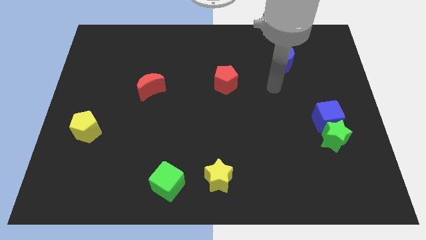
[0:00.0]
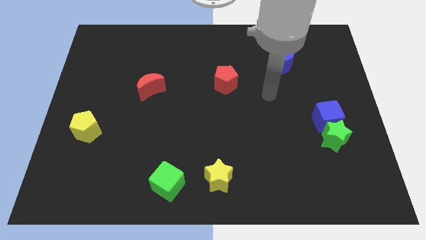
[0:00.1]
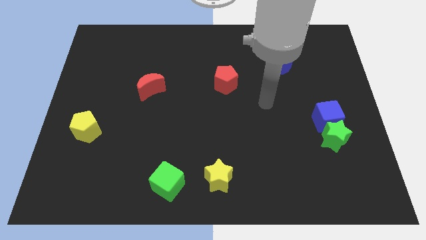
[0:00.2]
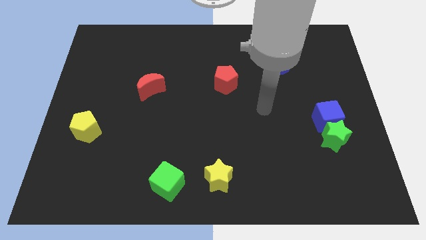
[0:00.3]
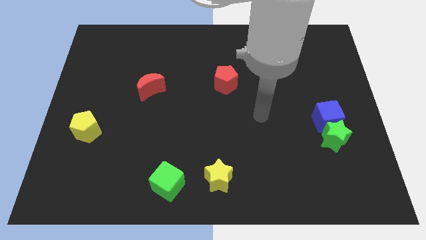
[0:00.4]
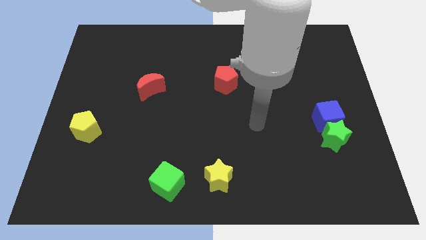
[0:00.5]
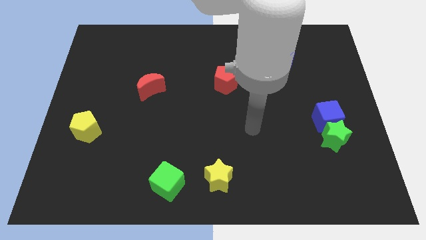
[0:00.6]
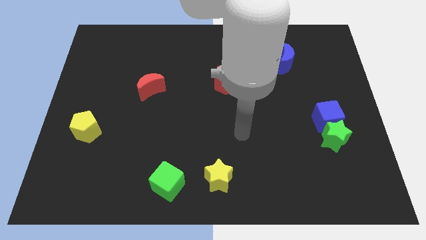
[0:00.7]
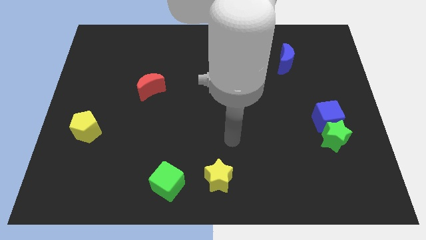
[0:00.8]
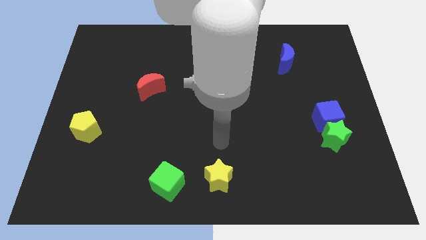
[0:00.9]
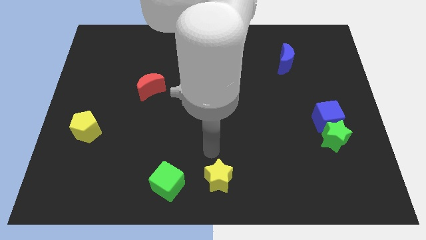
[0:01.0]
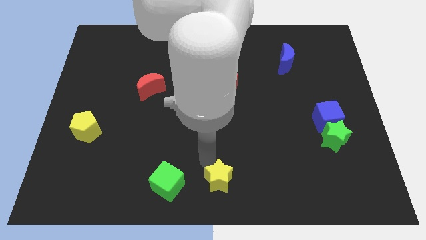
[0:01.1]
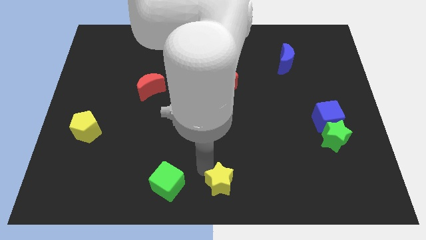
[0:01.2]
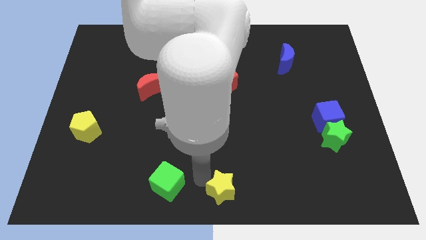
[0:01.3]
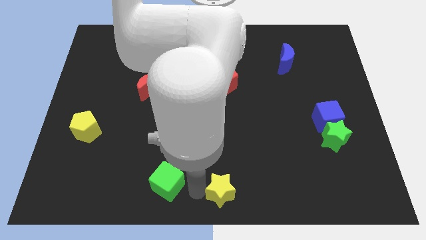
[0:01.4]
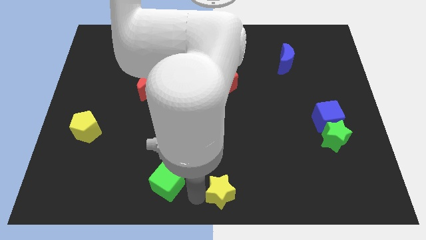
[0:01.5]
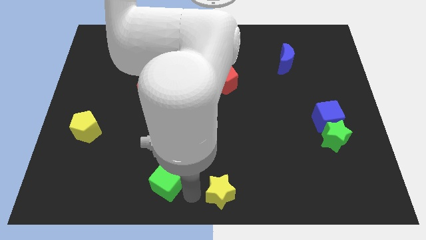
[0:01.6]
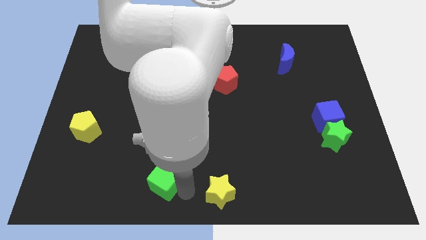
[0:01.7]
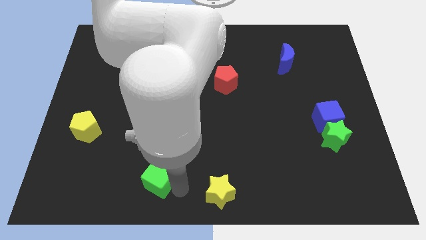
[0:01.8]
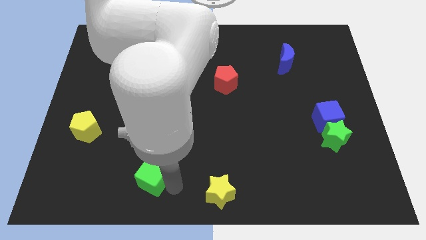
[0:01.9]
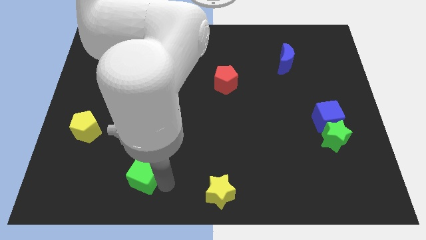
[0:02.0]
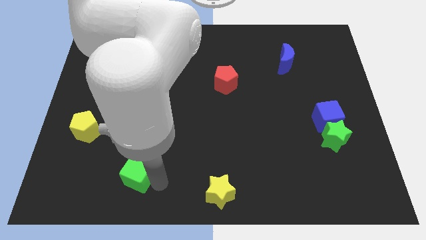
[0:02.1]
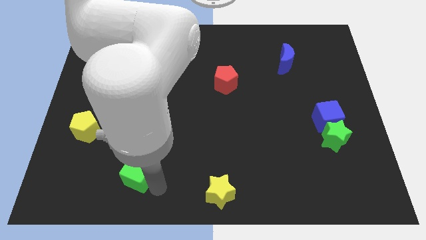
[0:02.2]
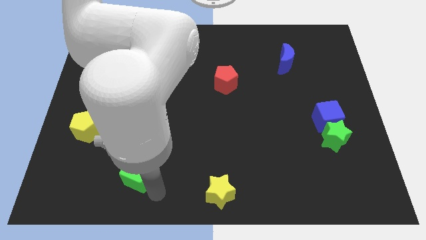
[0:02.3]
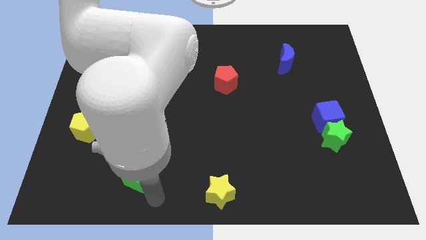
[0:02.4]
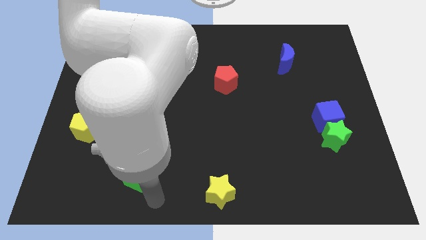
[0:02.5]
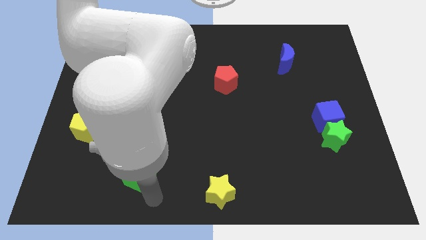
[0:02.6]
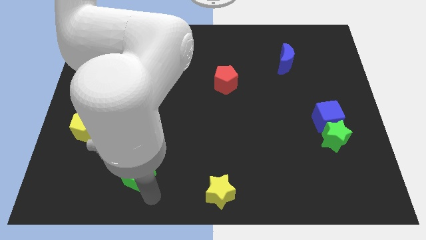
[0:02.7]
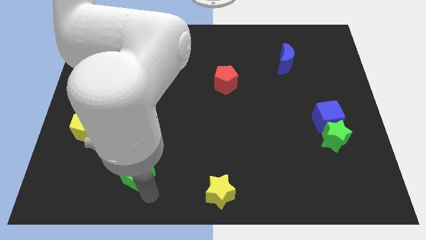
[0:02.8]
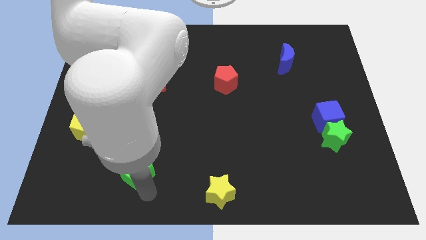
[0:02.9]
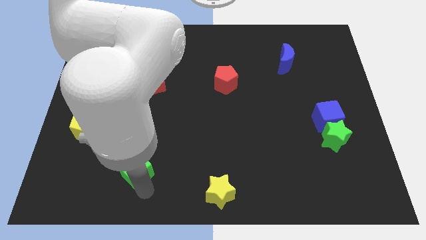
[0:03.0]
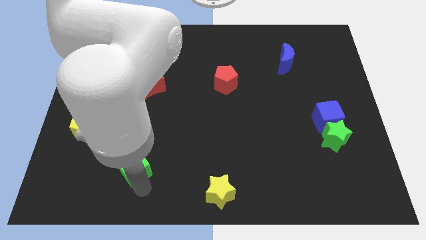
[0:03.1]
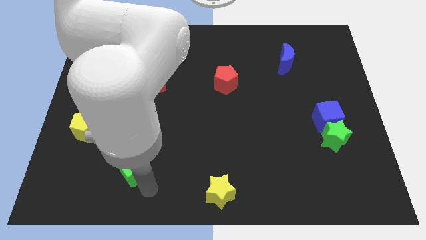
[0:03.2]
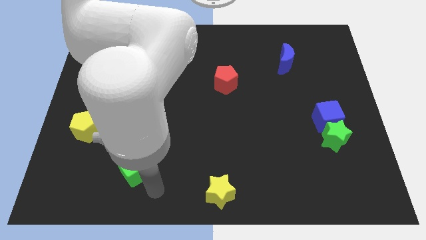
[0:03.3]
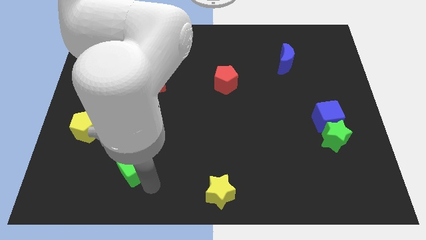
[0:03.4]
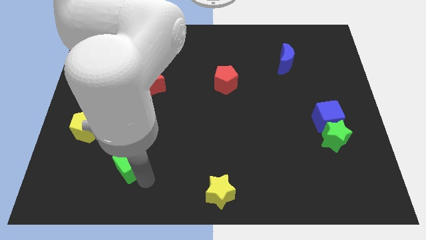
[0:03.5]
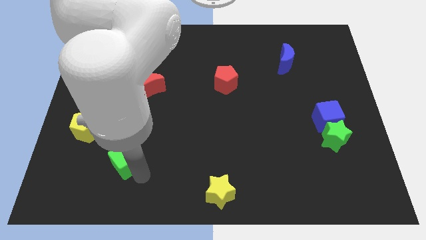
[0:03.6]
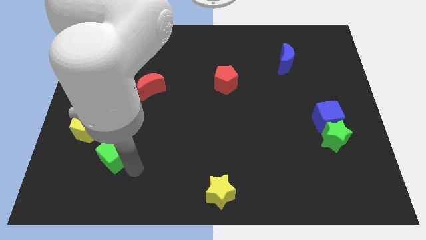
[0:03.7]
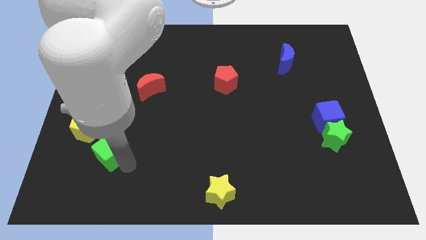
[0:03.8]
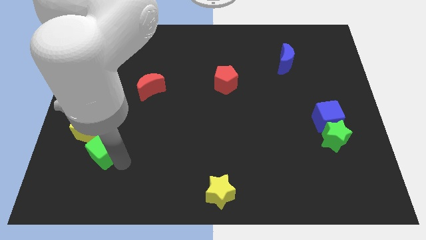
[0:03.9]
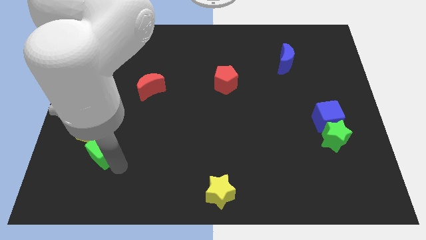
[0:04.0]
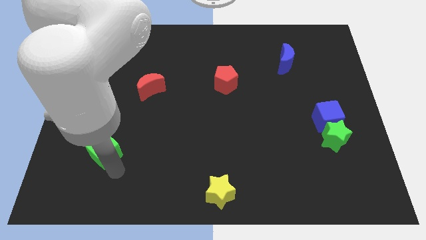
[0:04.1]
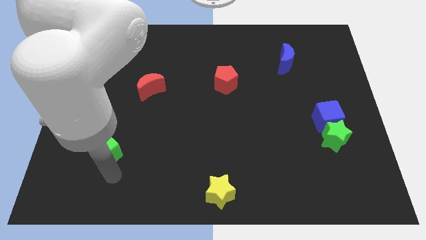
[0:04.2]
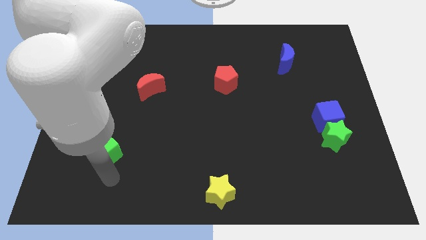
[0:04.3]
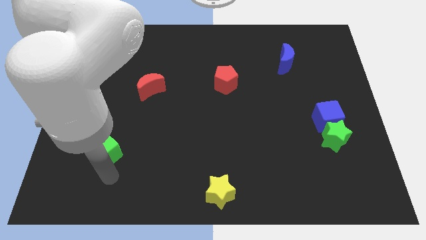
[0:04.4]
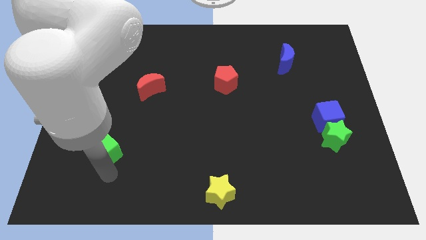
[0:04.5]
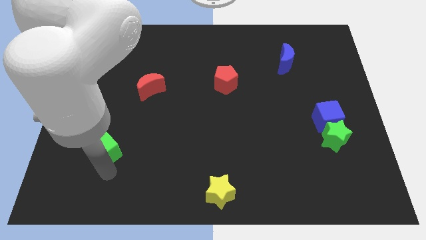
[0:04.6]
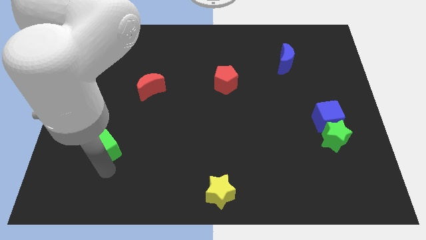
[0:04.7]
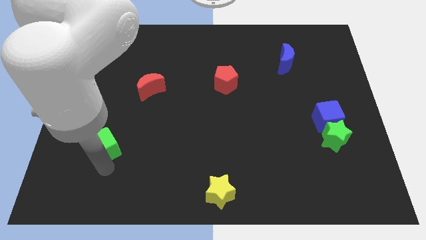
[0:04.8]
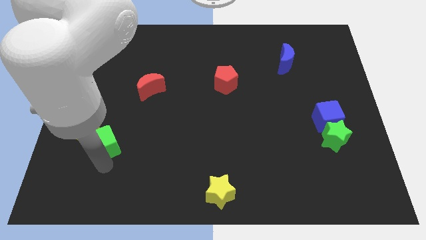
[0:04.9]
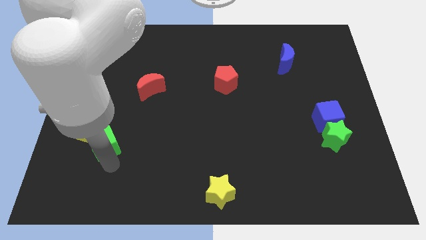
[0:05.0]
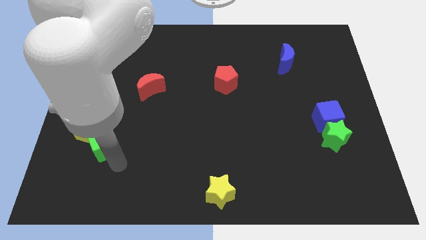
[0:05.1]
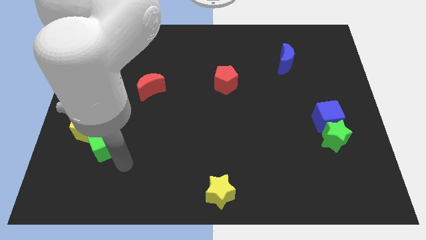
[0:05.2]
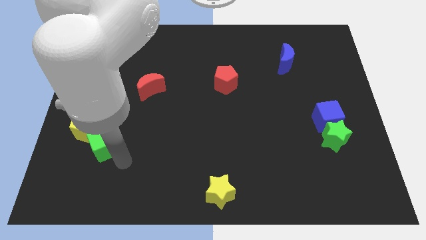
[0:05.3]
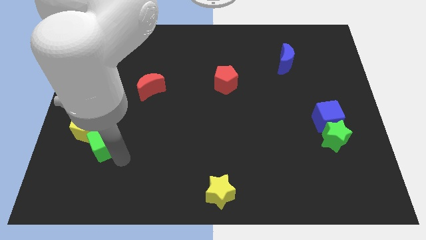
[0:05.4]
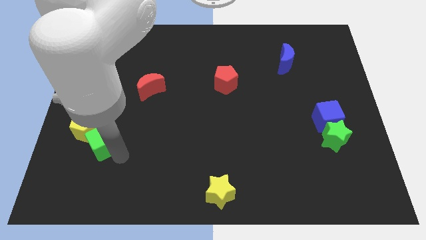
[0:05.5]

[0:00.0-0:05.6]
put the green cube towards the yellow pentagon

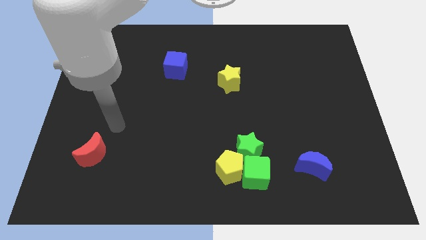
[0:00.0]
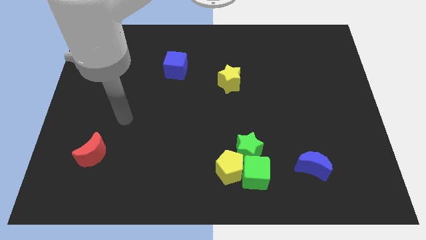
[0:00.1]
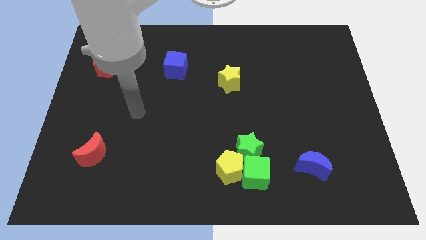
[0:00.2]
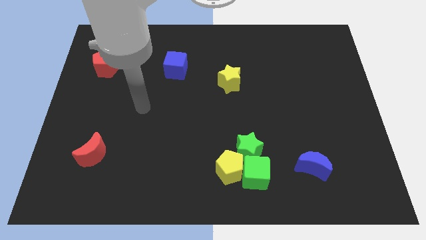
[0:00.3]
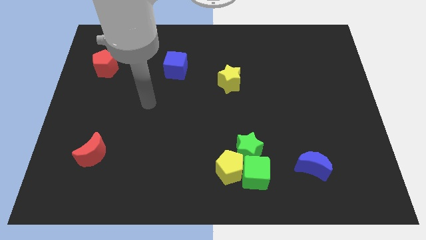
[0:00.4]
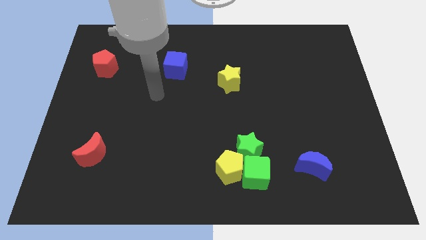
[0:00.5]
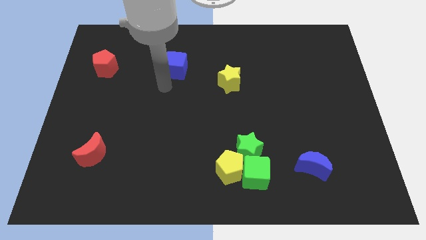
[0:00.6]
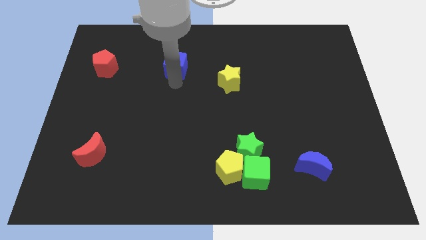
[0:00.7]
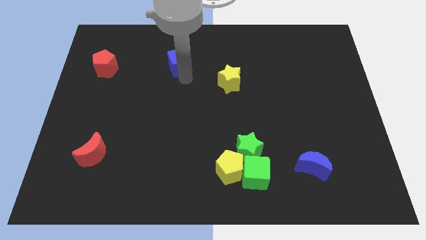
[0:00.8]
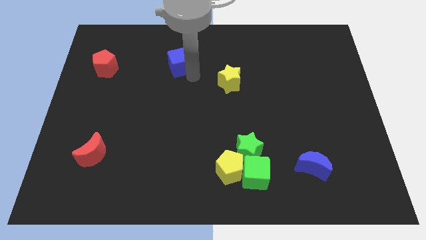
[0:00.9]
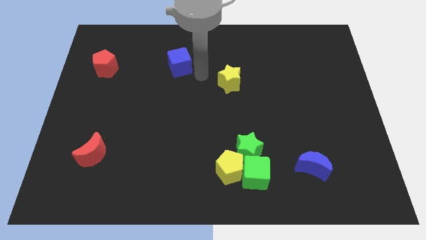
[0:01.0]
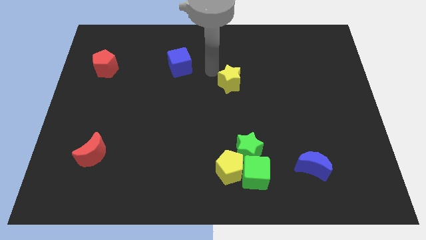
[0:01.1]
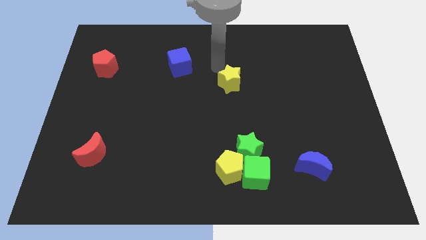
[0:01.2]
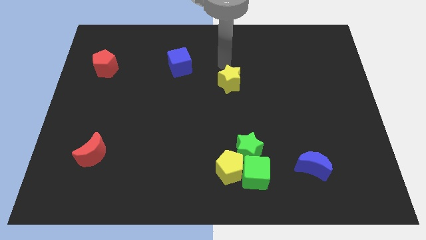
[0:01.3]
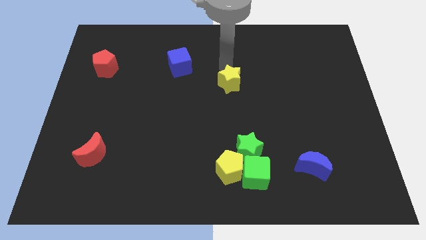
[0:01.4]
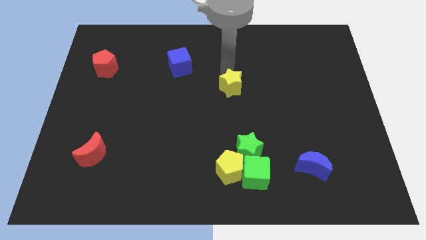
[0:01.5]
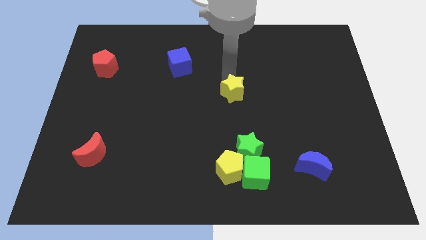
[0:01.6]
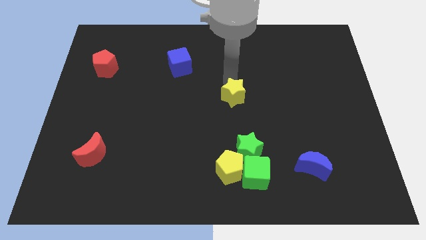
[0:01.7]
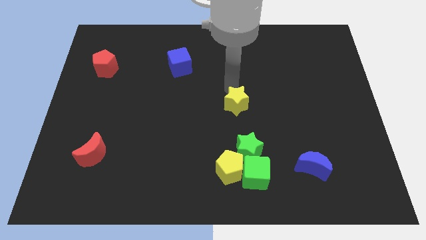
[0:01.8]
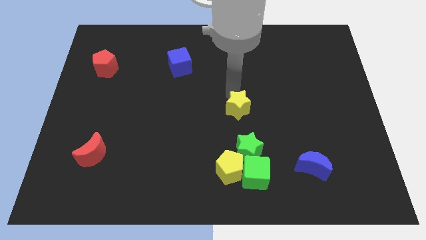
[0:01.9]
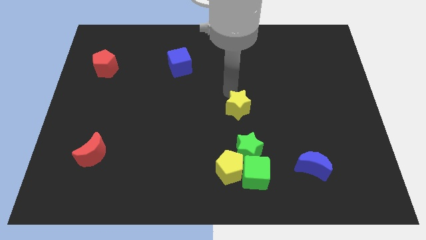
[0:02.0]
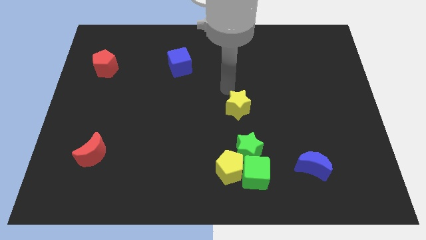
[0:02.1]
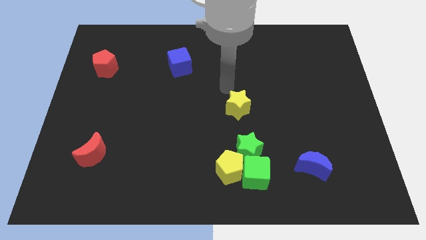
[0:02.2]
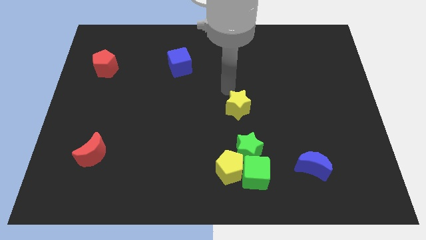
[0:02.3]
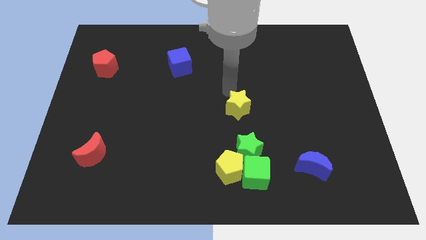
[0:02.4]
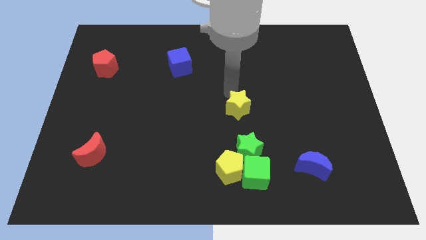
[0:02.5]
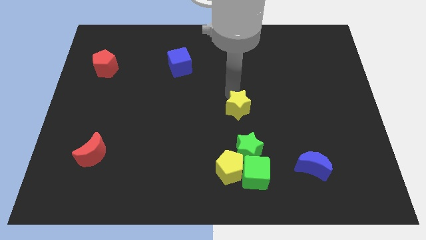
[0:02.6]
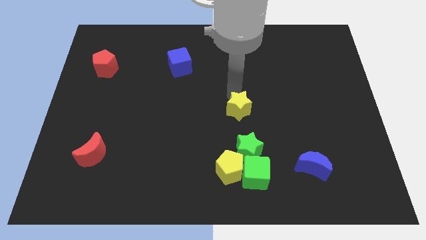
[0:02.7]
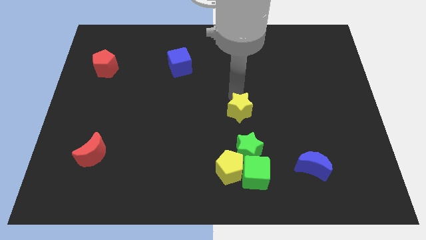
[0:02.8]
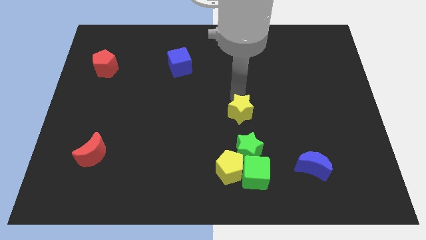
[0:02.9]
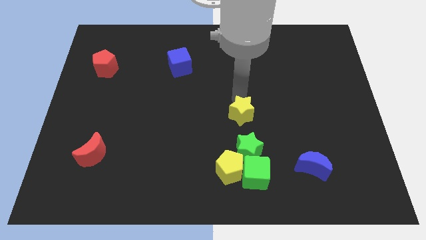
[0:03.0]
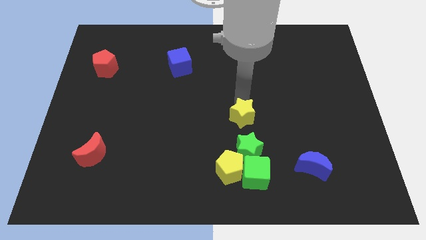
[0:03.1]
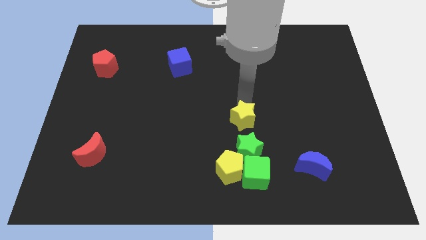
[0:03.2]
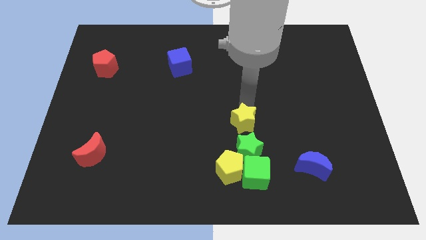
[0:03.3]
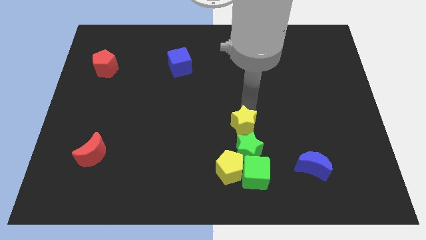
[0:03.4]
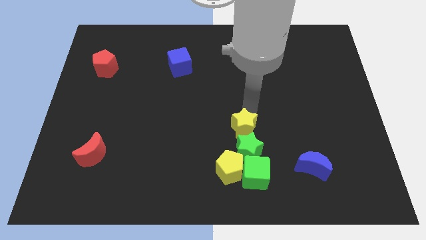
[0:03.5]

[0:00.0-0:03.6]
move the yellow star towards the green star
